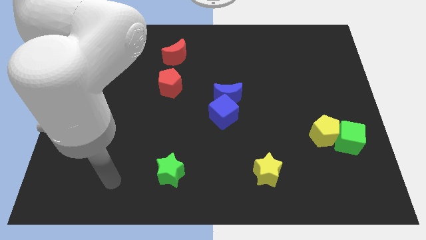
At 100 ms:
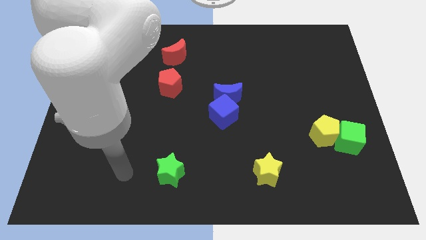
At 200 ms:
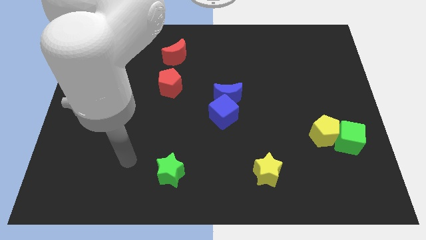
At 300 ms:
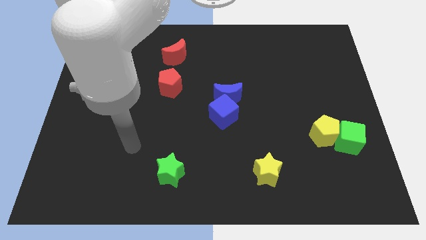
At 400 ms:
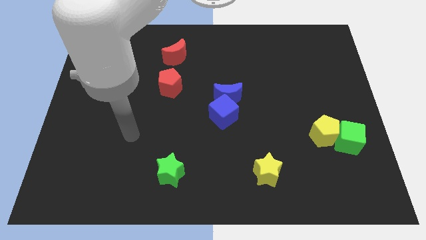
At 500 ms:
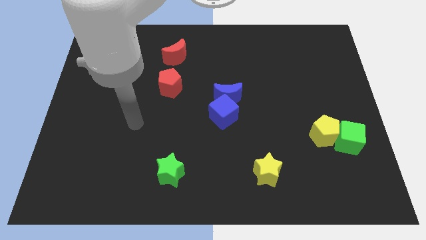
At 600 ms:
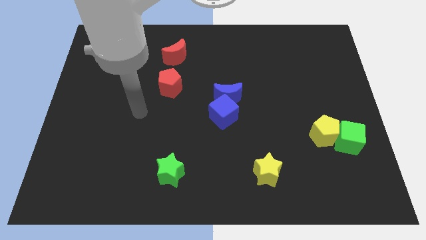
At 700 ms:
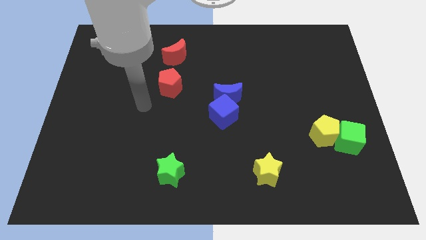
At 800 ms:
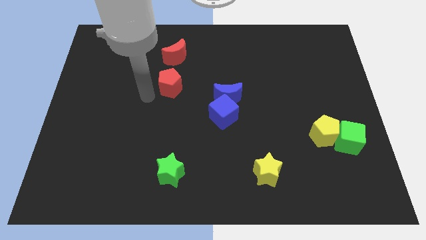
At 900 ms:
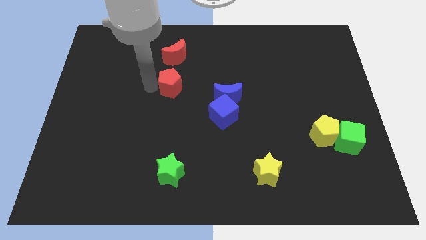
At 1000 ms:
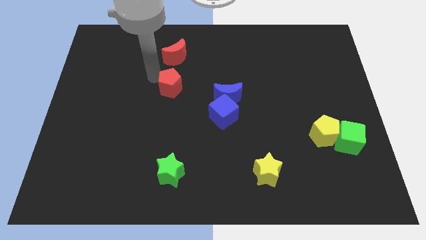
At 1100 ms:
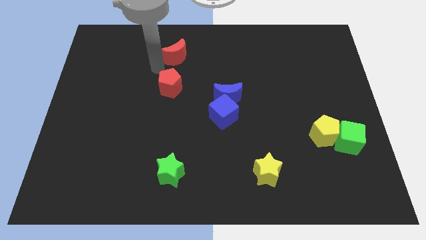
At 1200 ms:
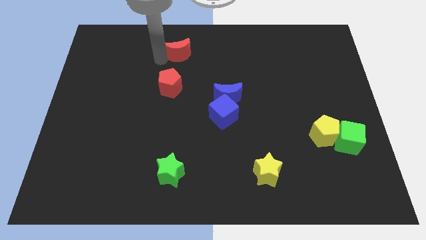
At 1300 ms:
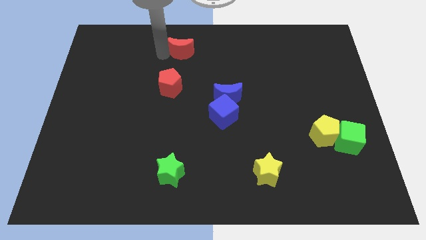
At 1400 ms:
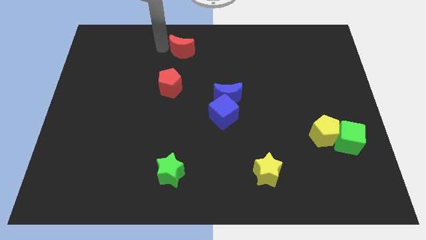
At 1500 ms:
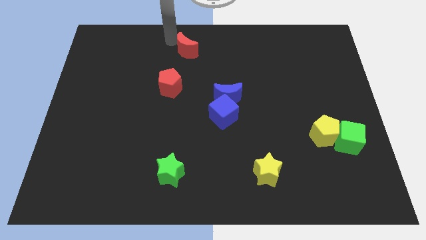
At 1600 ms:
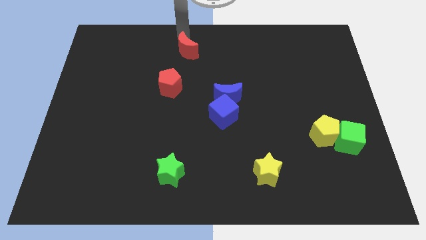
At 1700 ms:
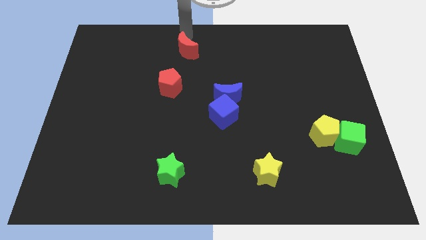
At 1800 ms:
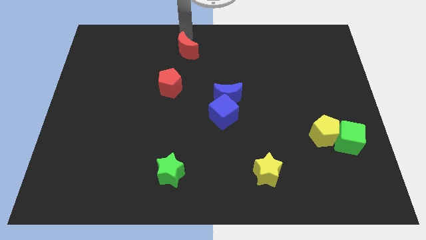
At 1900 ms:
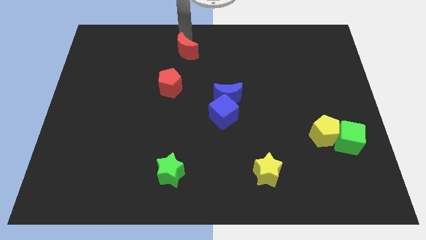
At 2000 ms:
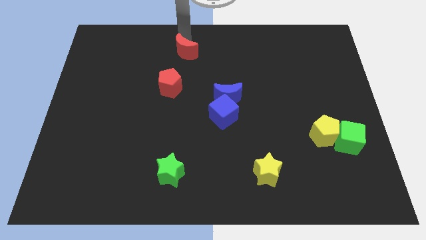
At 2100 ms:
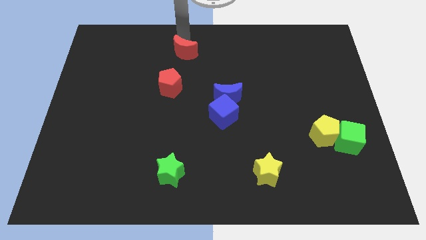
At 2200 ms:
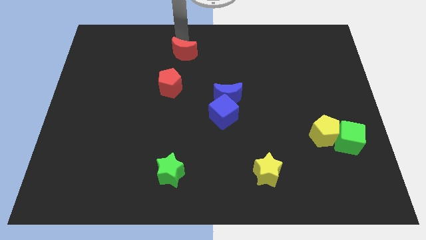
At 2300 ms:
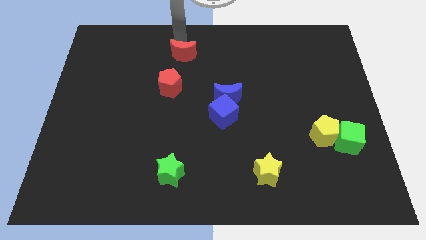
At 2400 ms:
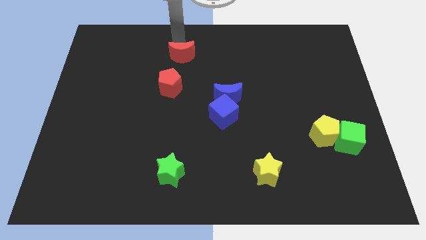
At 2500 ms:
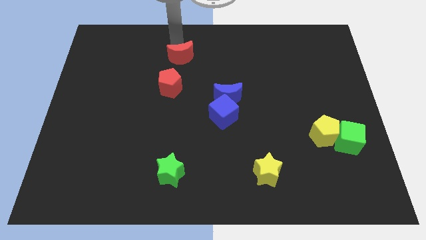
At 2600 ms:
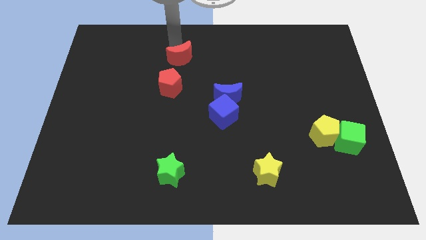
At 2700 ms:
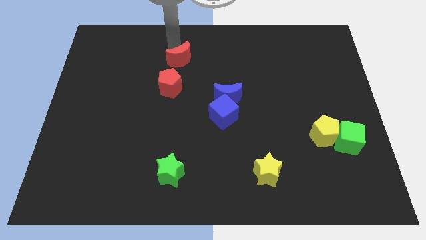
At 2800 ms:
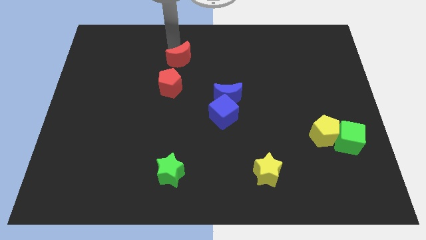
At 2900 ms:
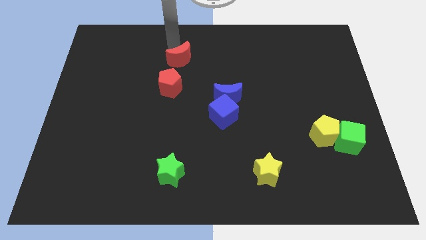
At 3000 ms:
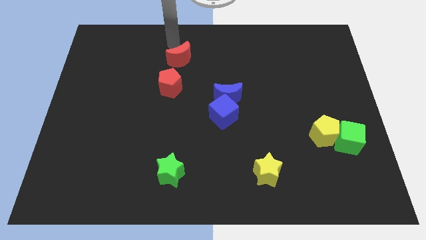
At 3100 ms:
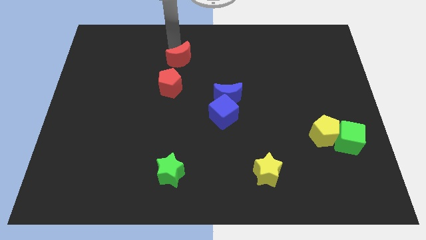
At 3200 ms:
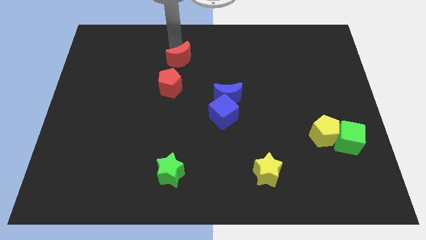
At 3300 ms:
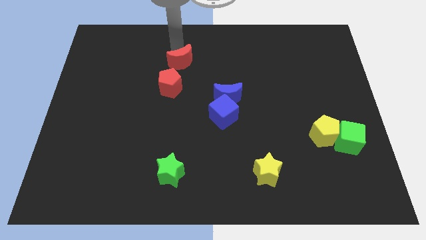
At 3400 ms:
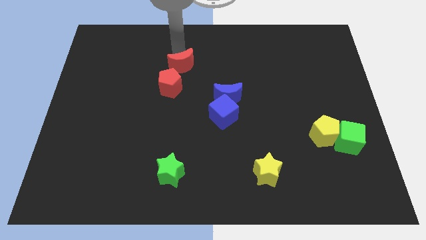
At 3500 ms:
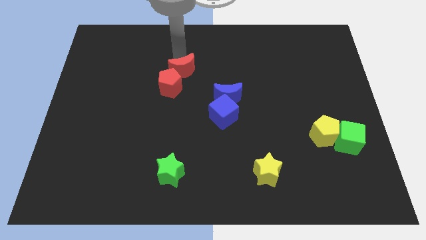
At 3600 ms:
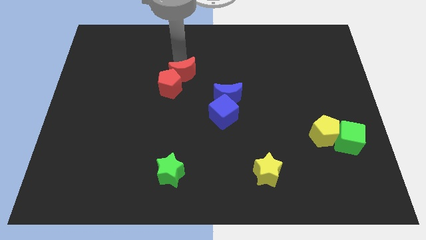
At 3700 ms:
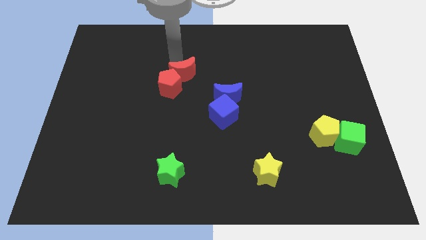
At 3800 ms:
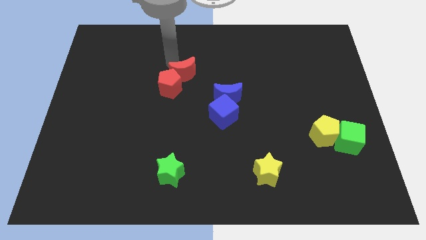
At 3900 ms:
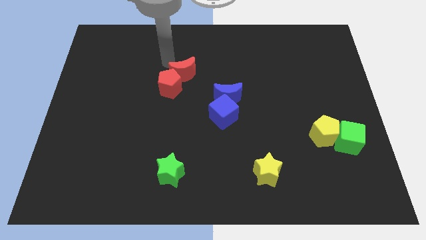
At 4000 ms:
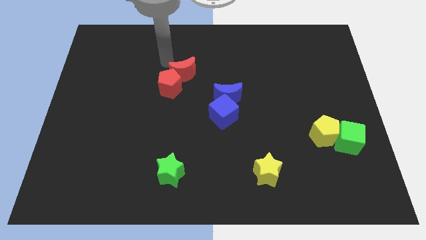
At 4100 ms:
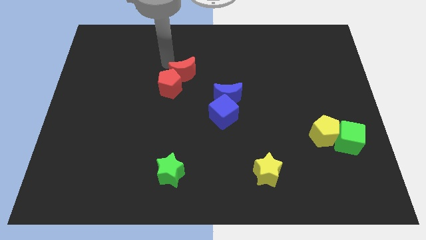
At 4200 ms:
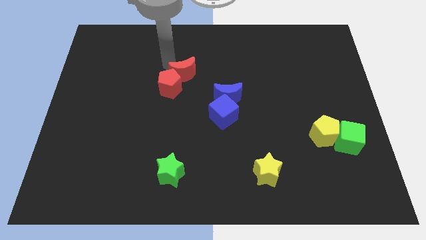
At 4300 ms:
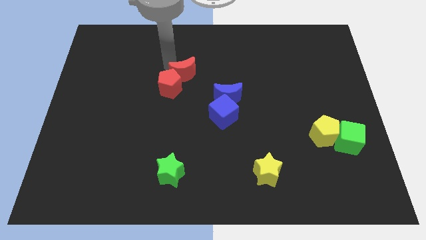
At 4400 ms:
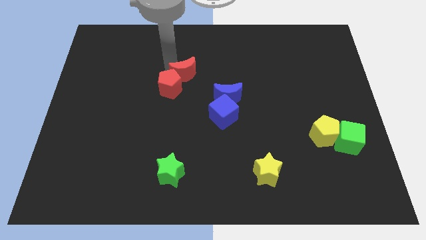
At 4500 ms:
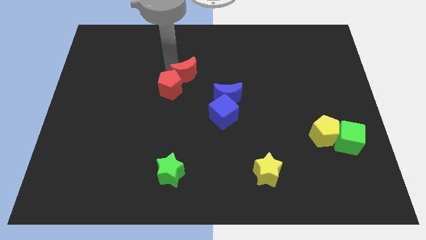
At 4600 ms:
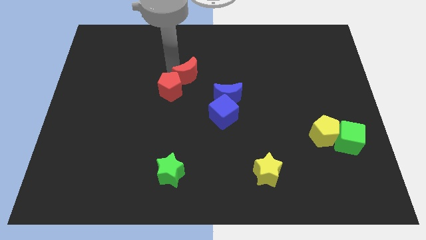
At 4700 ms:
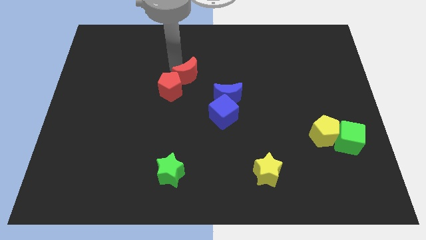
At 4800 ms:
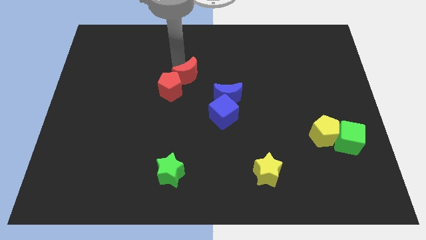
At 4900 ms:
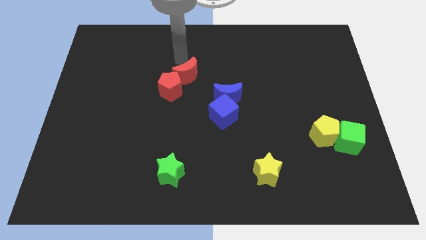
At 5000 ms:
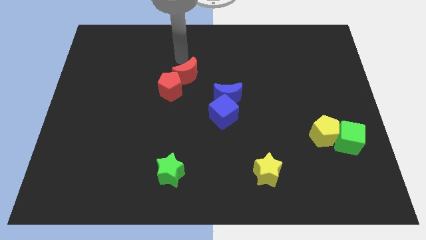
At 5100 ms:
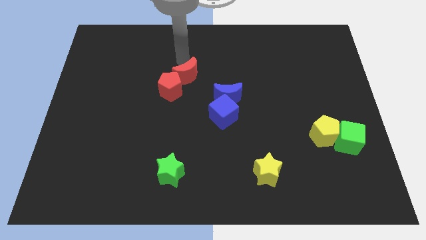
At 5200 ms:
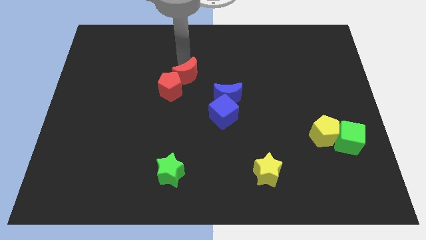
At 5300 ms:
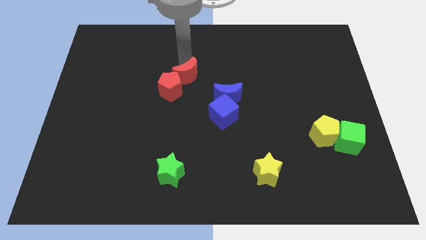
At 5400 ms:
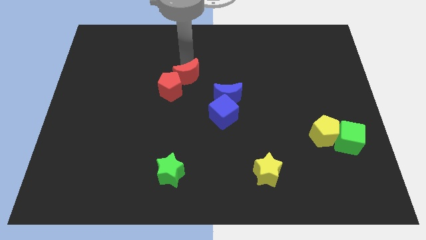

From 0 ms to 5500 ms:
slightly push the red moon downwards

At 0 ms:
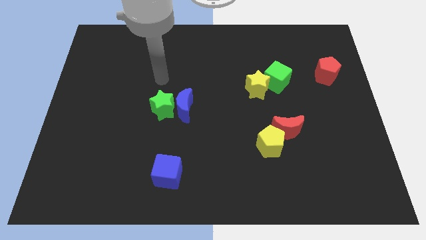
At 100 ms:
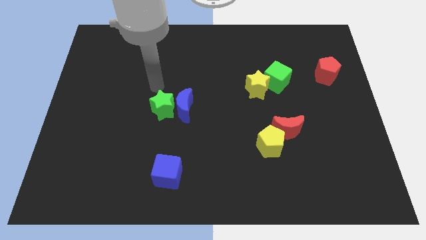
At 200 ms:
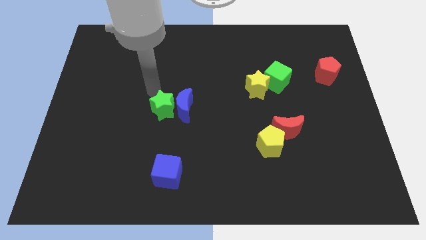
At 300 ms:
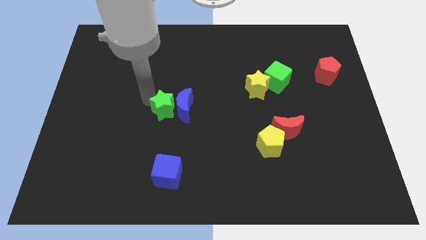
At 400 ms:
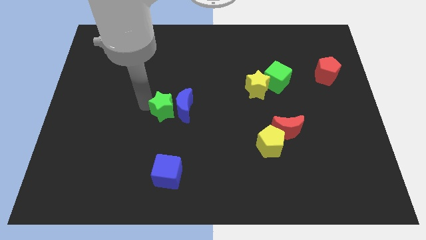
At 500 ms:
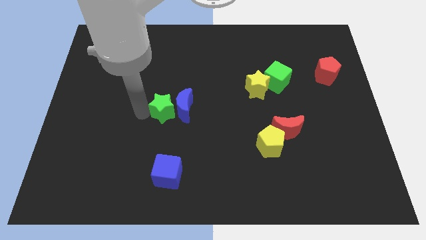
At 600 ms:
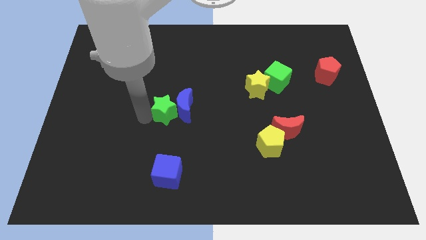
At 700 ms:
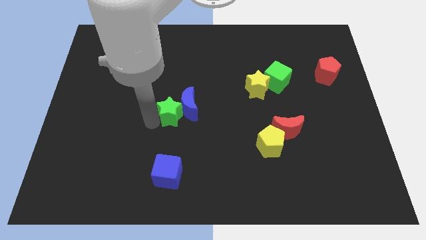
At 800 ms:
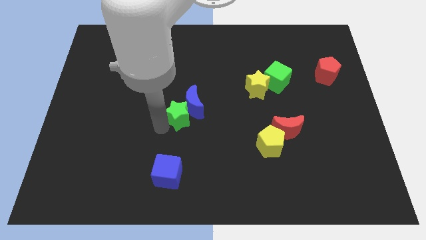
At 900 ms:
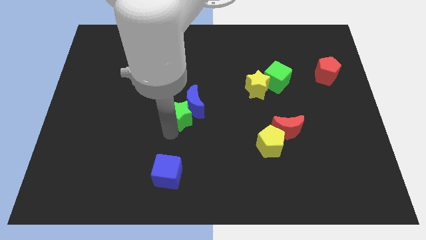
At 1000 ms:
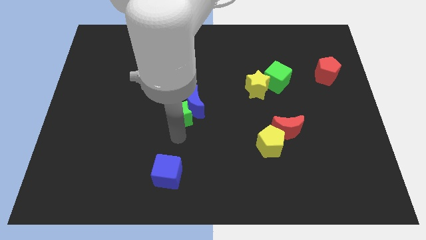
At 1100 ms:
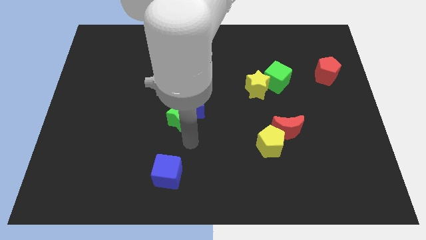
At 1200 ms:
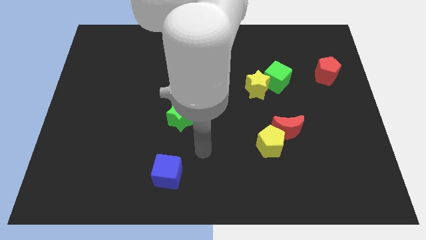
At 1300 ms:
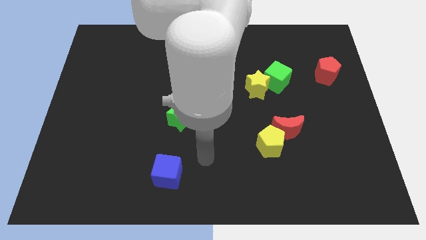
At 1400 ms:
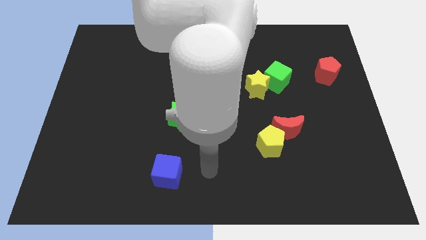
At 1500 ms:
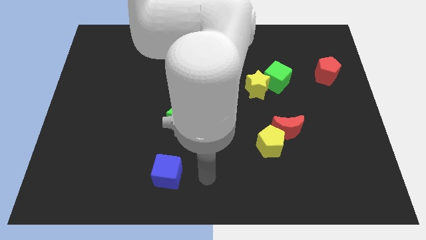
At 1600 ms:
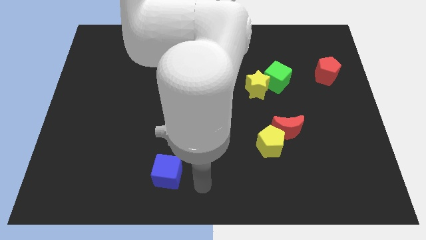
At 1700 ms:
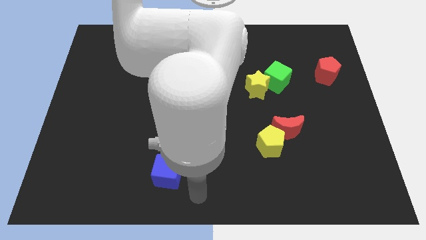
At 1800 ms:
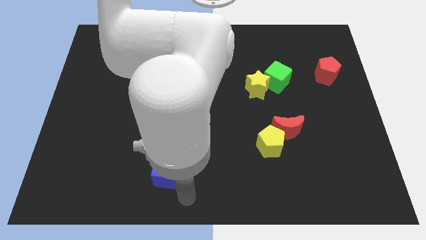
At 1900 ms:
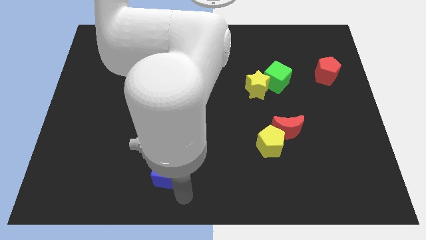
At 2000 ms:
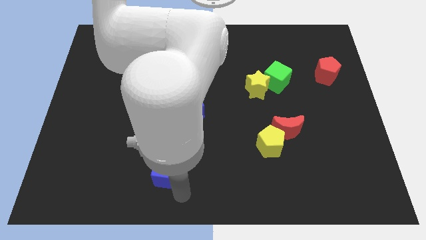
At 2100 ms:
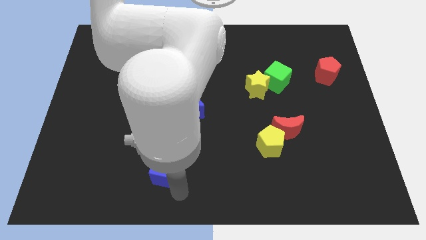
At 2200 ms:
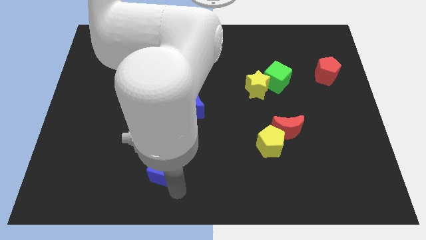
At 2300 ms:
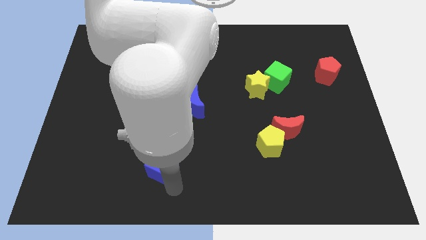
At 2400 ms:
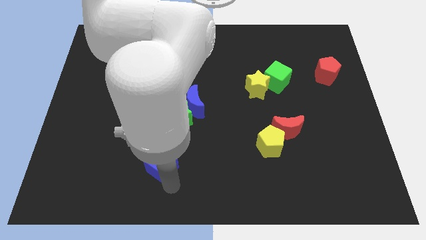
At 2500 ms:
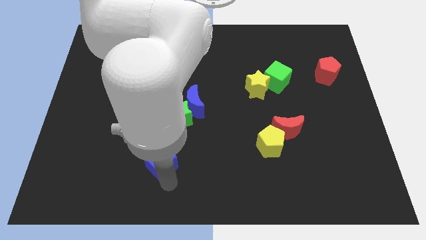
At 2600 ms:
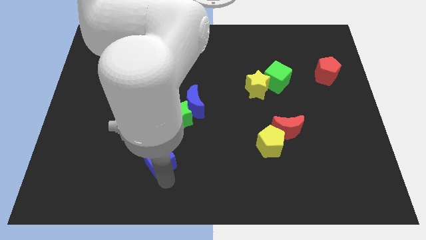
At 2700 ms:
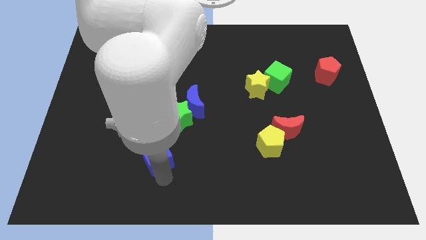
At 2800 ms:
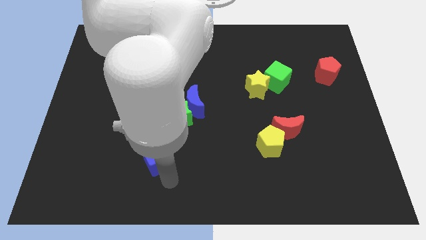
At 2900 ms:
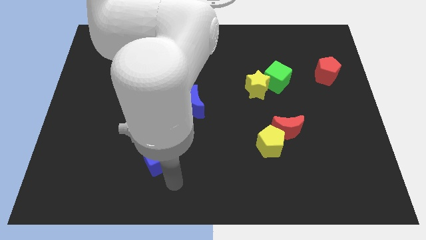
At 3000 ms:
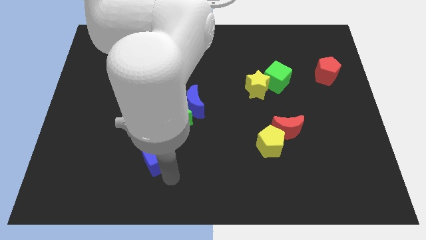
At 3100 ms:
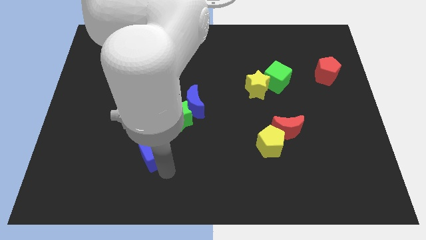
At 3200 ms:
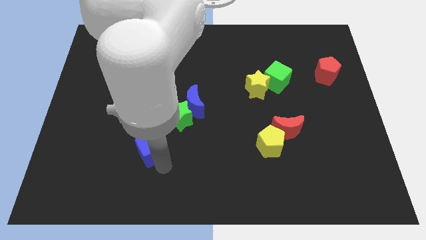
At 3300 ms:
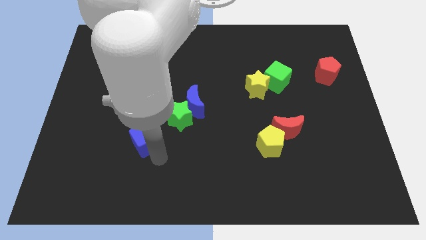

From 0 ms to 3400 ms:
slightly slide the blue cube upwards and left diagonally
